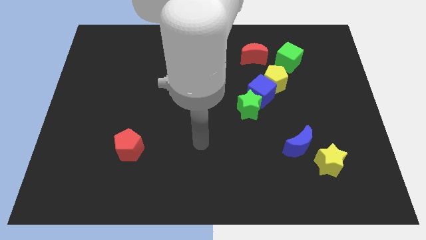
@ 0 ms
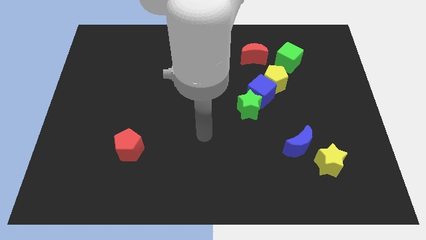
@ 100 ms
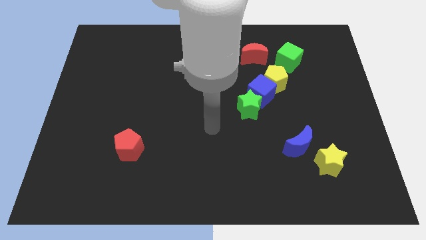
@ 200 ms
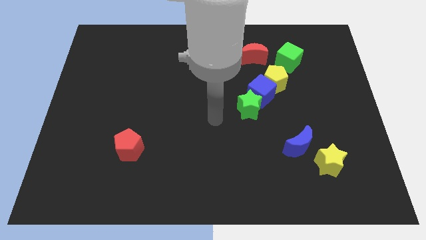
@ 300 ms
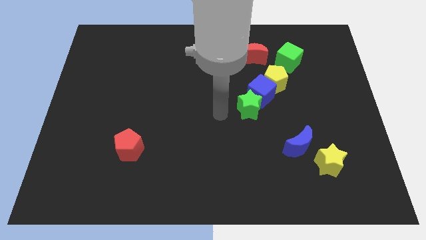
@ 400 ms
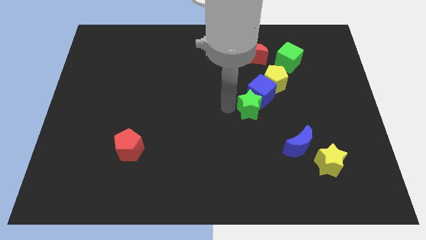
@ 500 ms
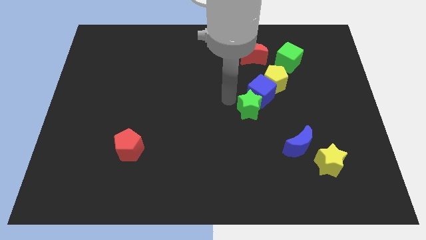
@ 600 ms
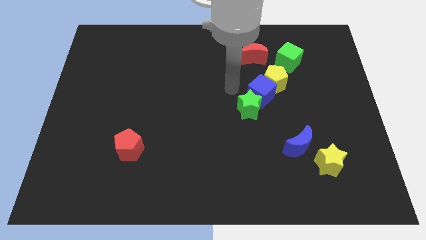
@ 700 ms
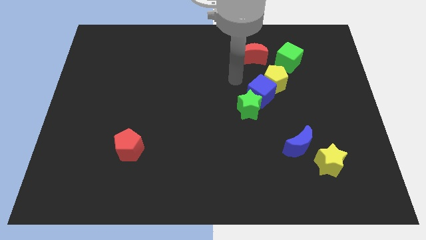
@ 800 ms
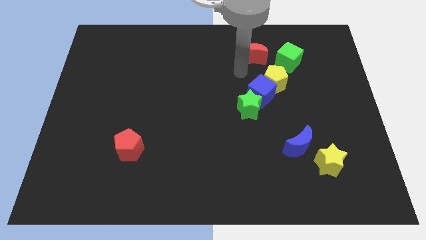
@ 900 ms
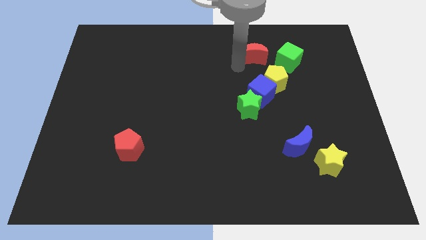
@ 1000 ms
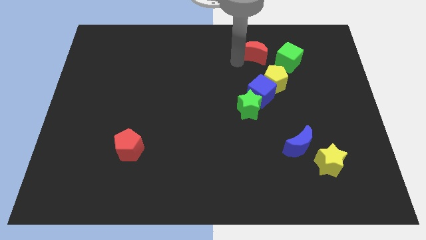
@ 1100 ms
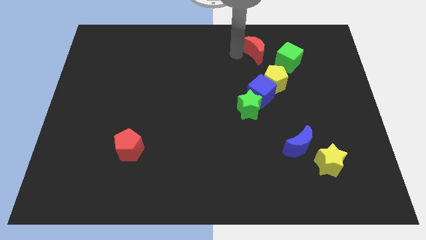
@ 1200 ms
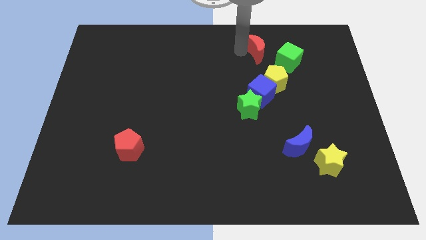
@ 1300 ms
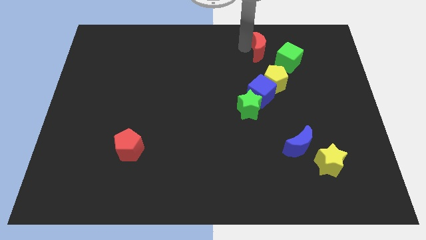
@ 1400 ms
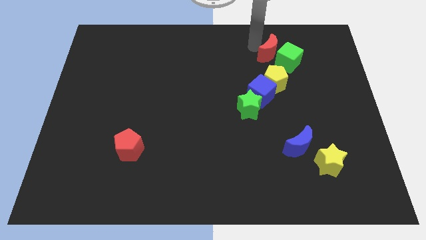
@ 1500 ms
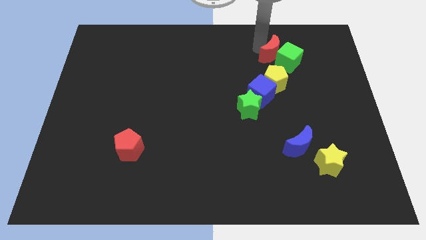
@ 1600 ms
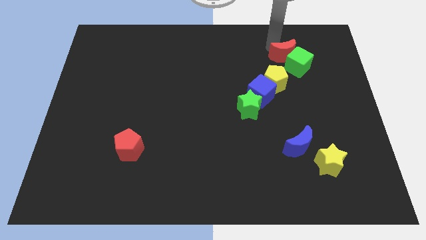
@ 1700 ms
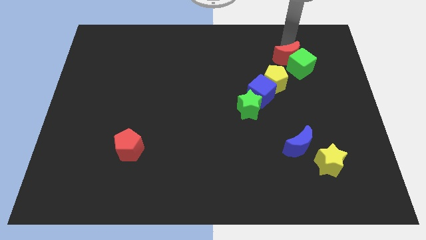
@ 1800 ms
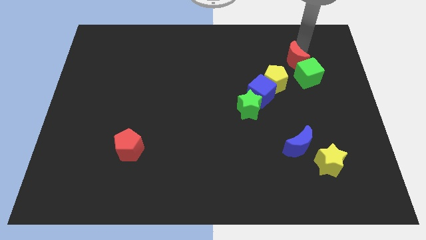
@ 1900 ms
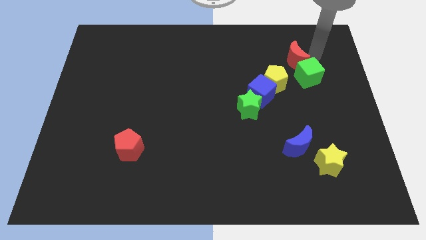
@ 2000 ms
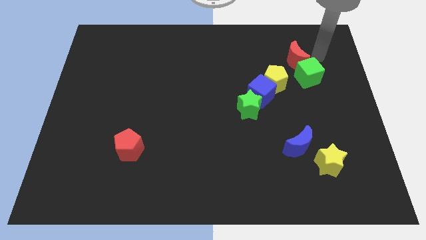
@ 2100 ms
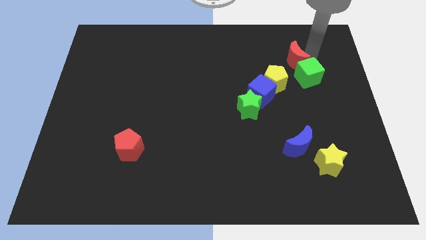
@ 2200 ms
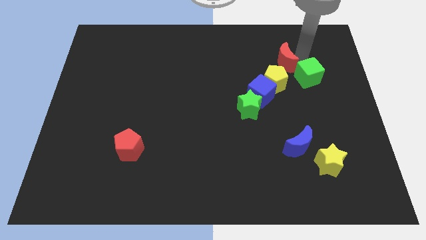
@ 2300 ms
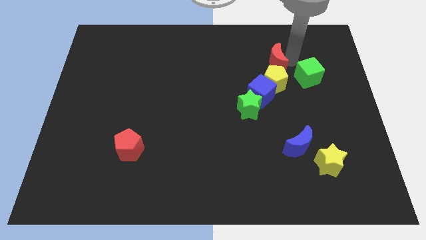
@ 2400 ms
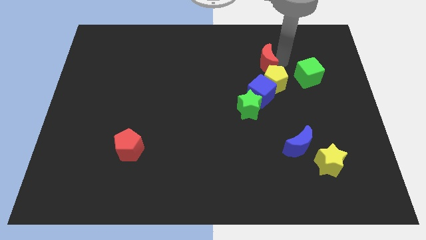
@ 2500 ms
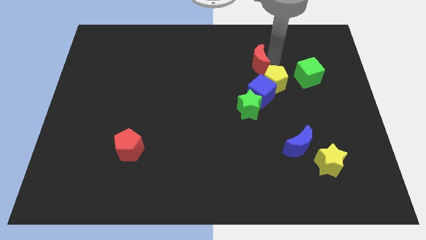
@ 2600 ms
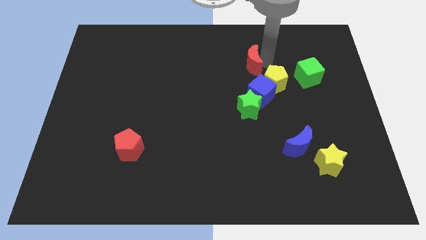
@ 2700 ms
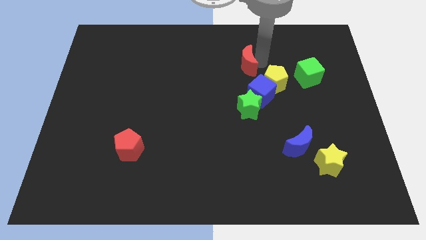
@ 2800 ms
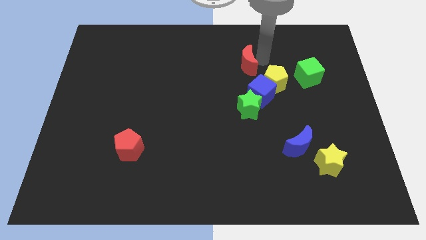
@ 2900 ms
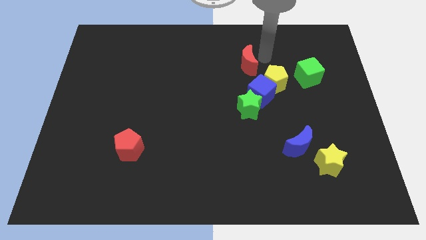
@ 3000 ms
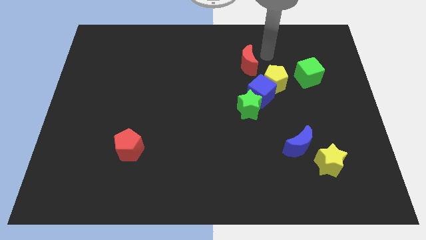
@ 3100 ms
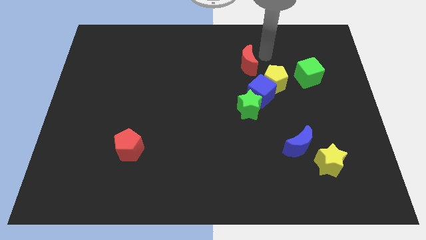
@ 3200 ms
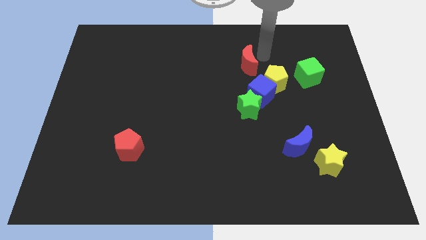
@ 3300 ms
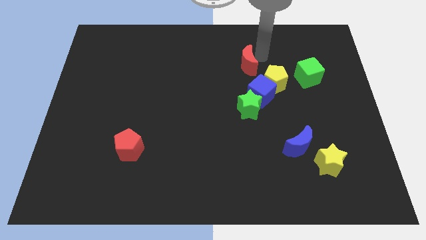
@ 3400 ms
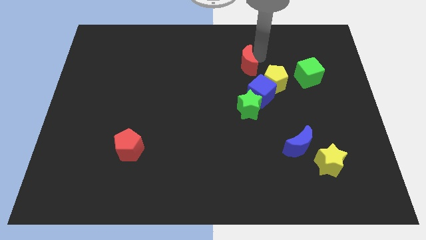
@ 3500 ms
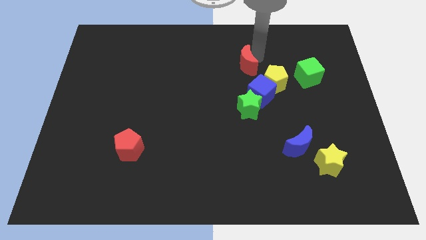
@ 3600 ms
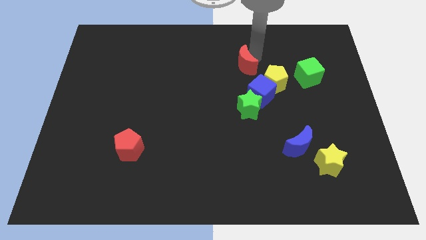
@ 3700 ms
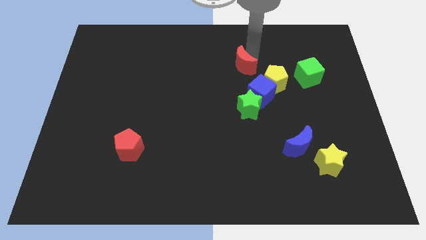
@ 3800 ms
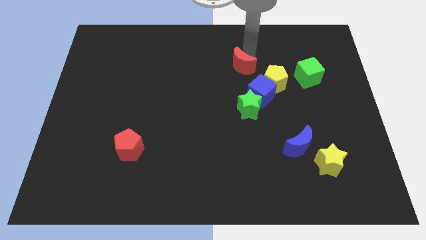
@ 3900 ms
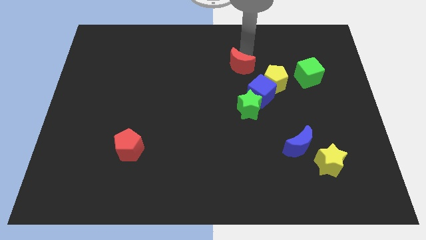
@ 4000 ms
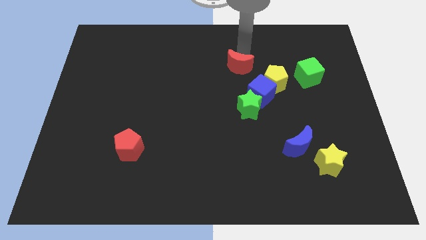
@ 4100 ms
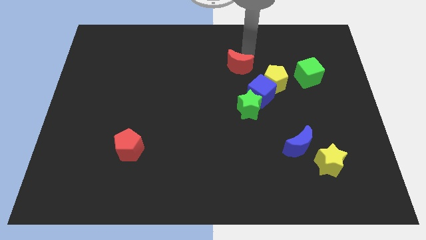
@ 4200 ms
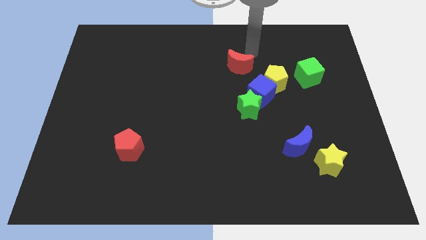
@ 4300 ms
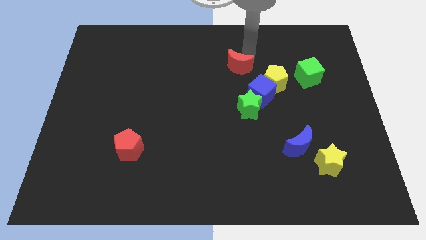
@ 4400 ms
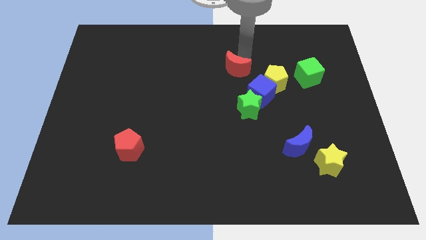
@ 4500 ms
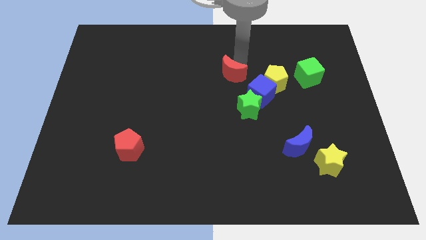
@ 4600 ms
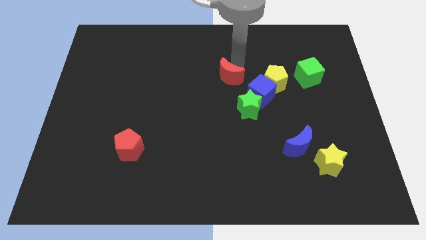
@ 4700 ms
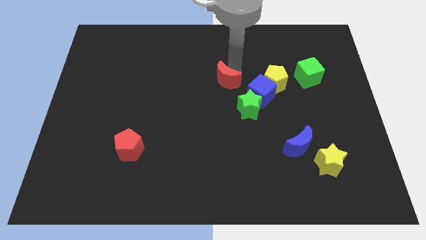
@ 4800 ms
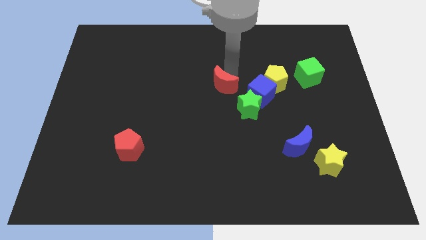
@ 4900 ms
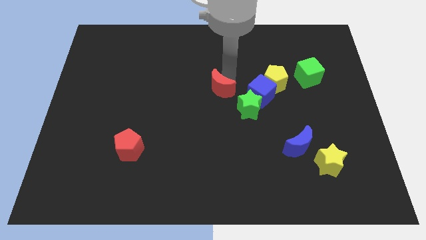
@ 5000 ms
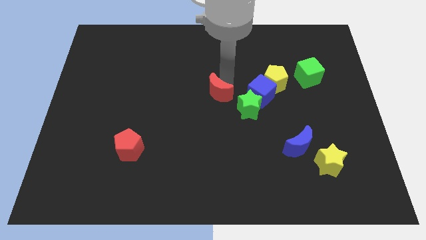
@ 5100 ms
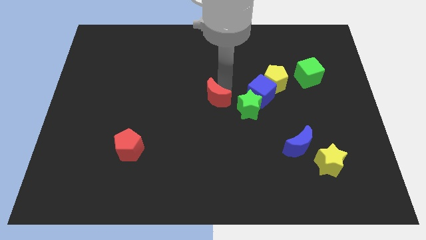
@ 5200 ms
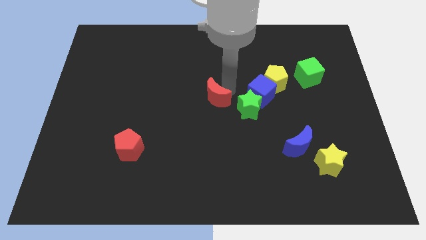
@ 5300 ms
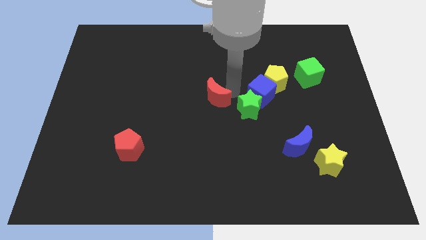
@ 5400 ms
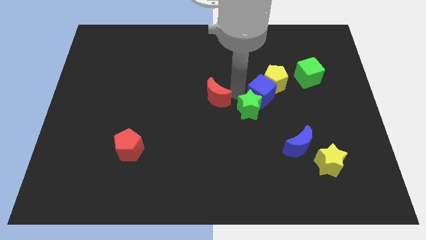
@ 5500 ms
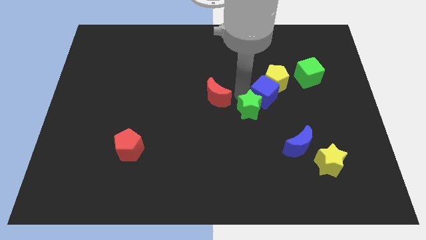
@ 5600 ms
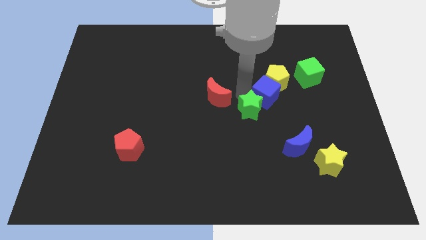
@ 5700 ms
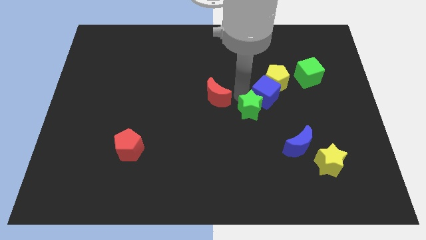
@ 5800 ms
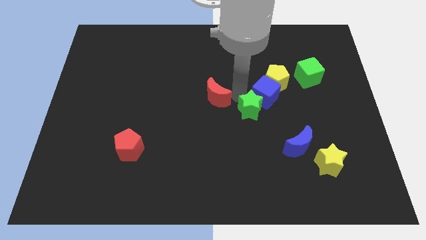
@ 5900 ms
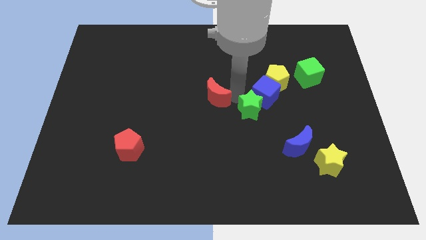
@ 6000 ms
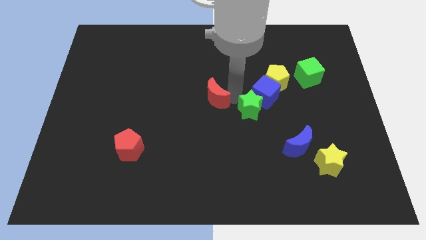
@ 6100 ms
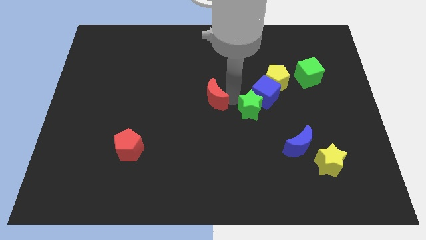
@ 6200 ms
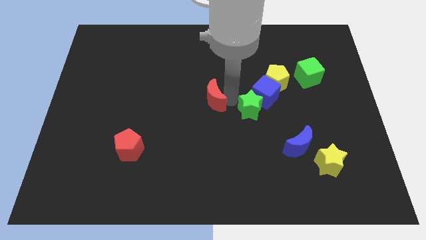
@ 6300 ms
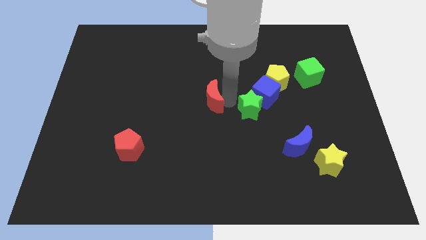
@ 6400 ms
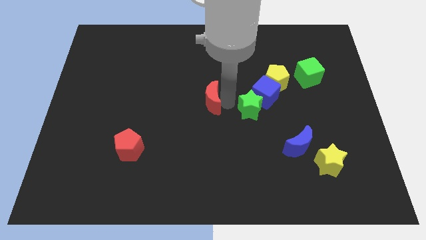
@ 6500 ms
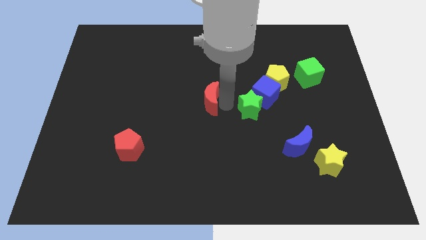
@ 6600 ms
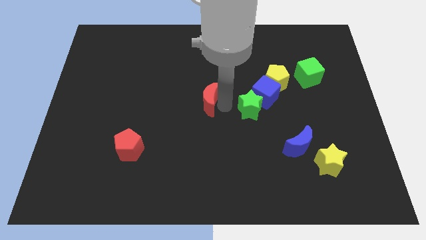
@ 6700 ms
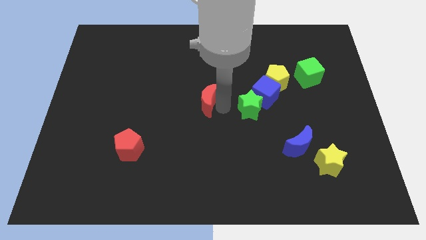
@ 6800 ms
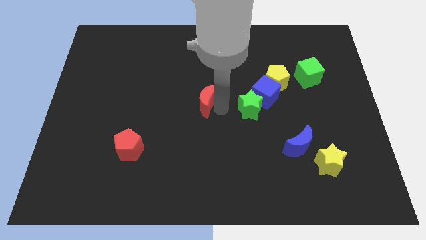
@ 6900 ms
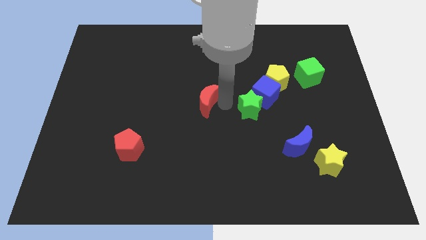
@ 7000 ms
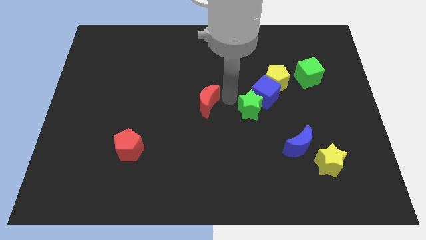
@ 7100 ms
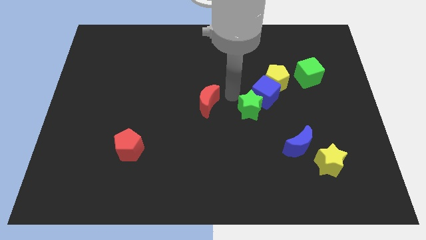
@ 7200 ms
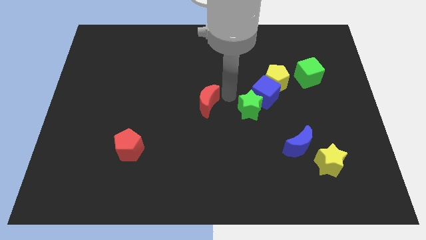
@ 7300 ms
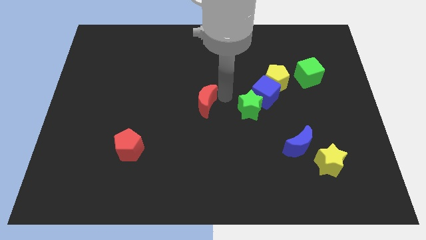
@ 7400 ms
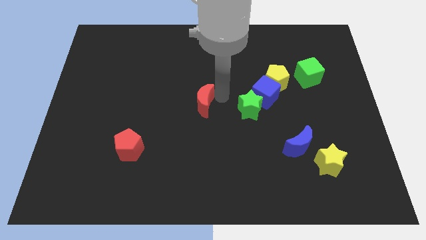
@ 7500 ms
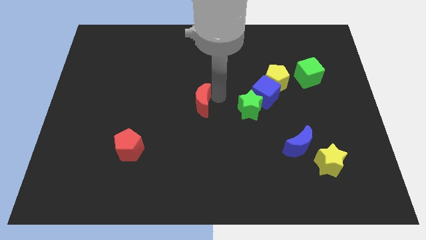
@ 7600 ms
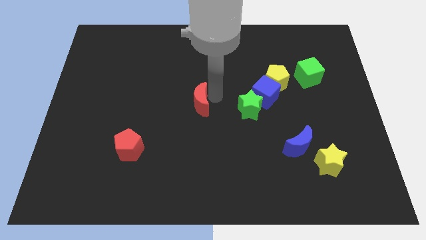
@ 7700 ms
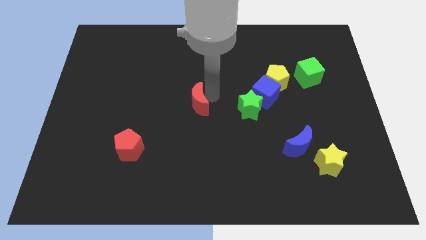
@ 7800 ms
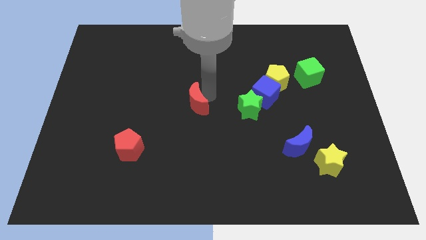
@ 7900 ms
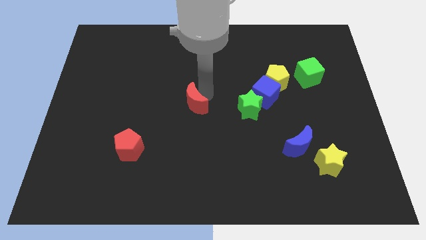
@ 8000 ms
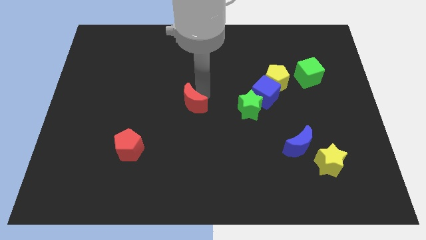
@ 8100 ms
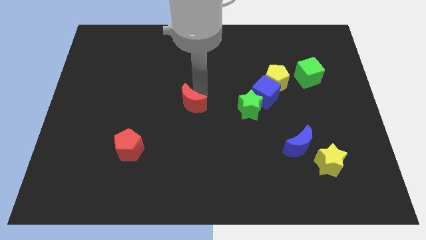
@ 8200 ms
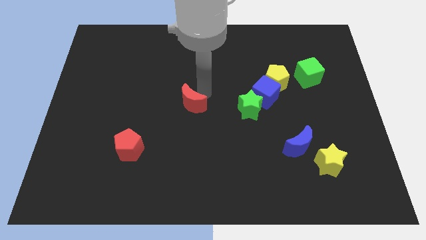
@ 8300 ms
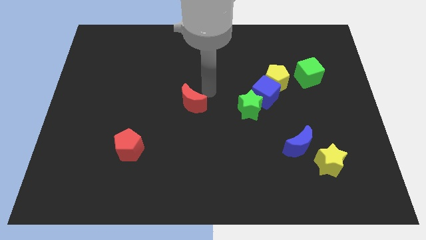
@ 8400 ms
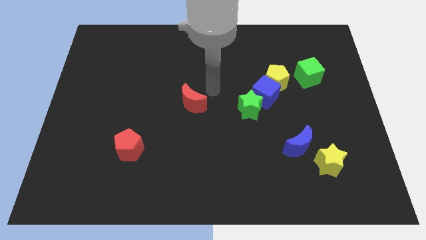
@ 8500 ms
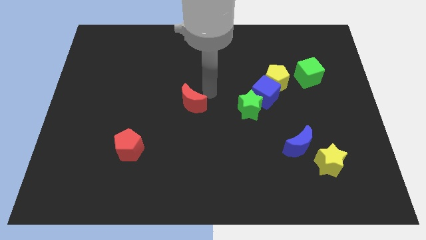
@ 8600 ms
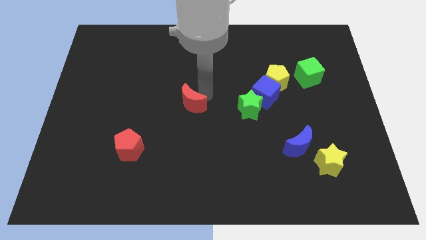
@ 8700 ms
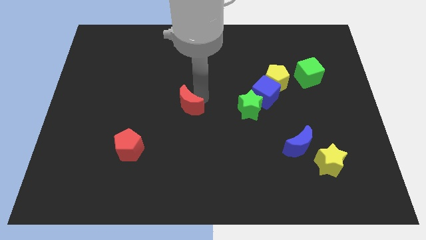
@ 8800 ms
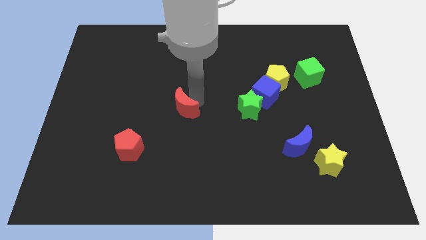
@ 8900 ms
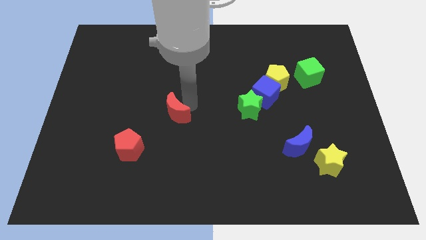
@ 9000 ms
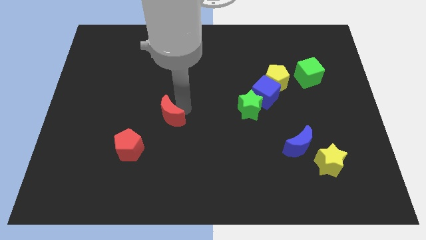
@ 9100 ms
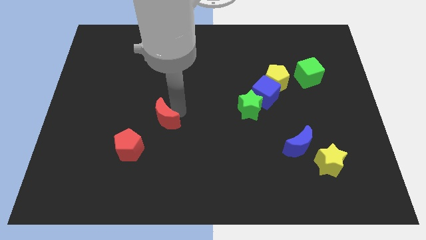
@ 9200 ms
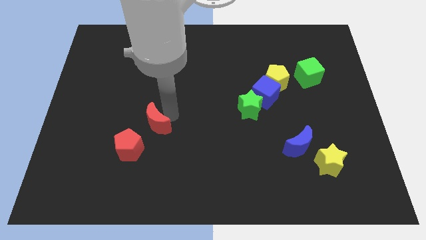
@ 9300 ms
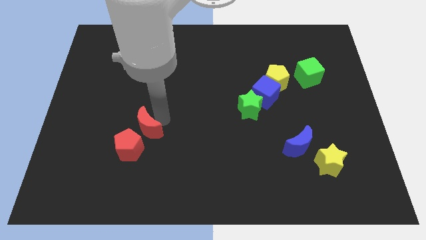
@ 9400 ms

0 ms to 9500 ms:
put the red moon towards the red pentagon
